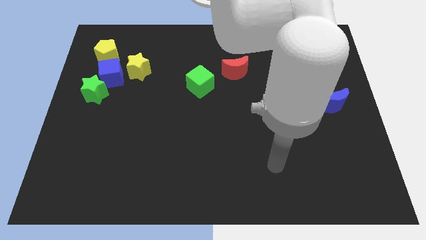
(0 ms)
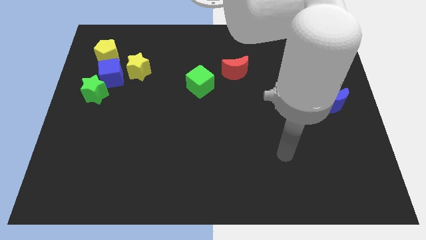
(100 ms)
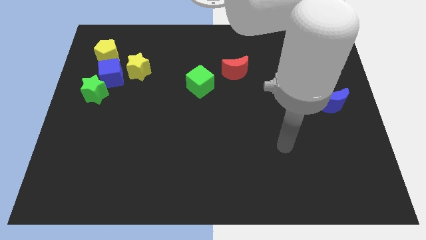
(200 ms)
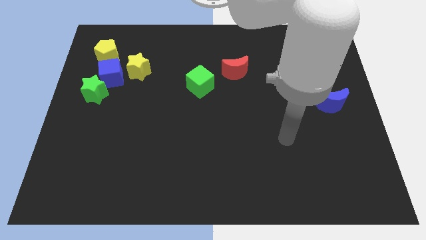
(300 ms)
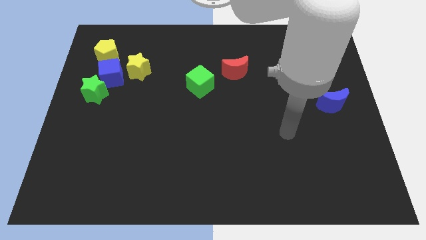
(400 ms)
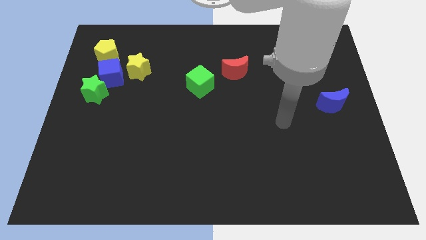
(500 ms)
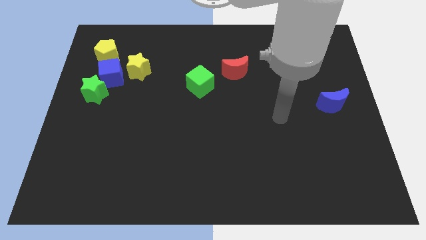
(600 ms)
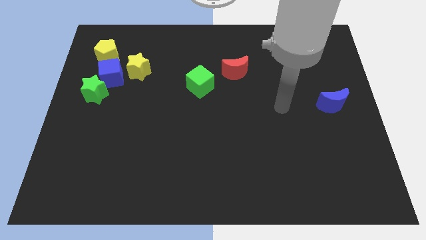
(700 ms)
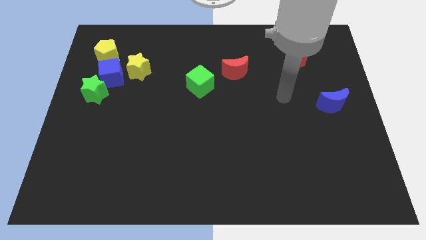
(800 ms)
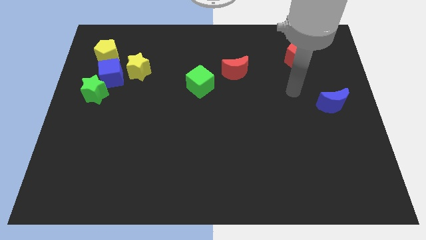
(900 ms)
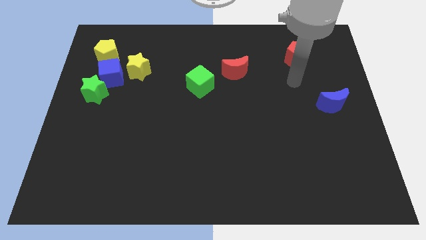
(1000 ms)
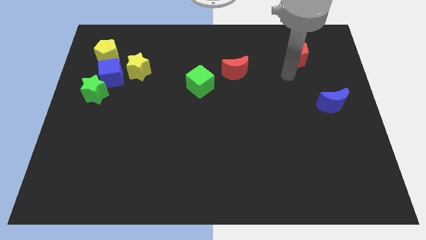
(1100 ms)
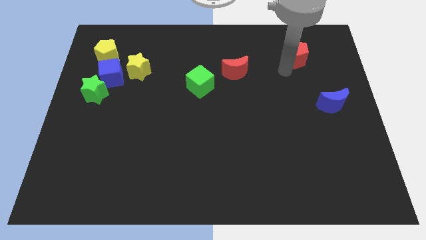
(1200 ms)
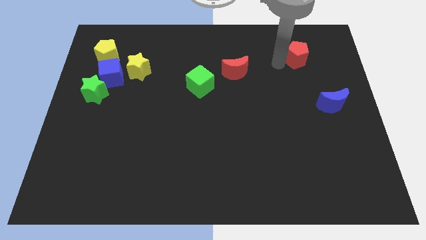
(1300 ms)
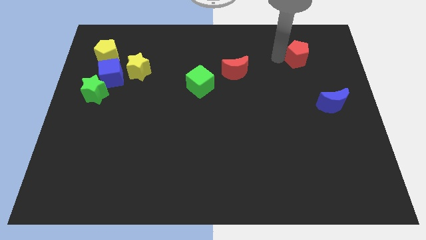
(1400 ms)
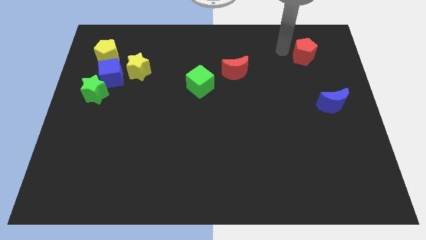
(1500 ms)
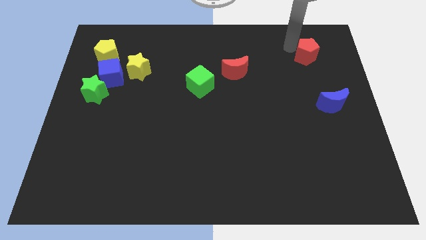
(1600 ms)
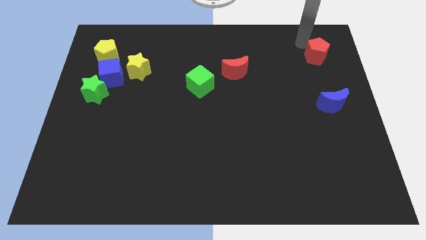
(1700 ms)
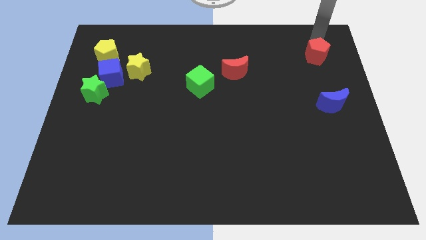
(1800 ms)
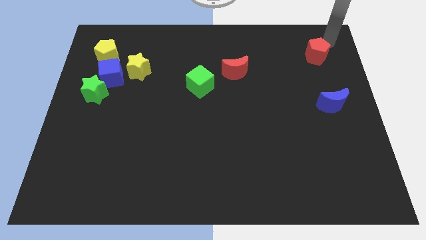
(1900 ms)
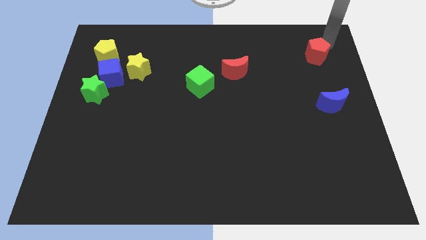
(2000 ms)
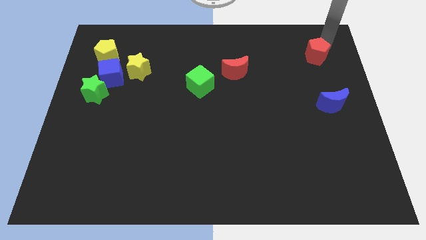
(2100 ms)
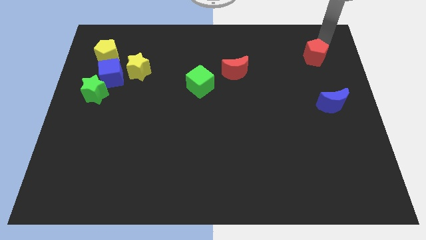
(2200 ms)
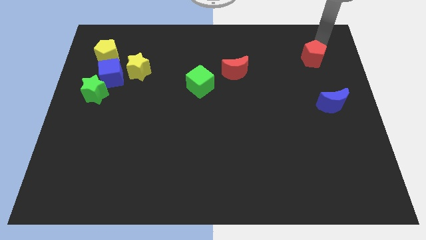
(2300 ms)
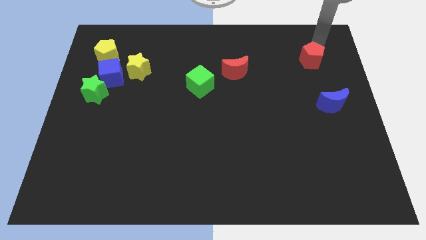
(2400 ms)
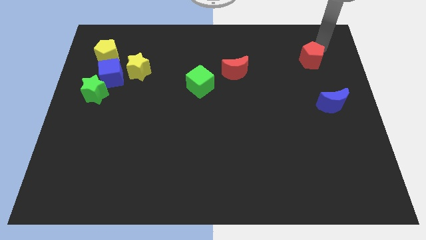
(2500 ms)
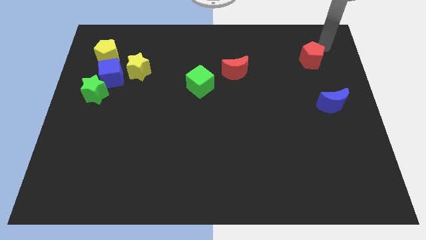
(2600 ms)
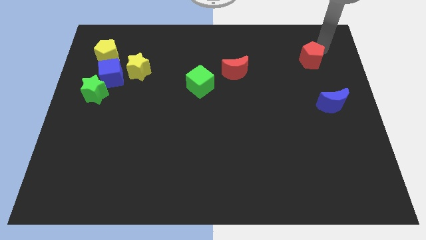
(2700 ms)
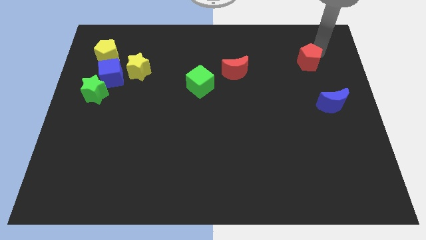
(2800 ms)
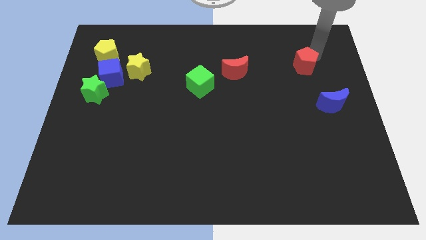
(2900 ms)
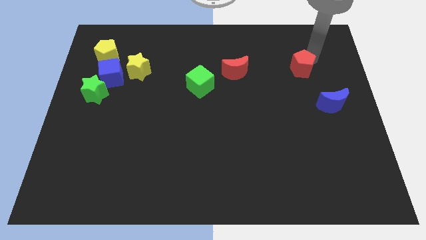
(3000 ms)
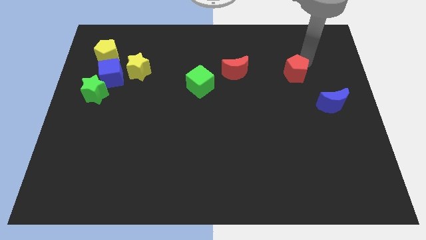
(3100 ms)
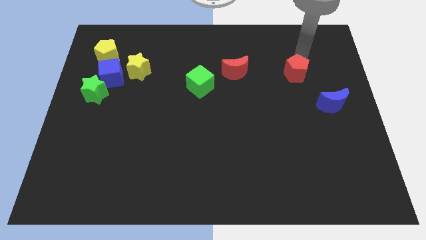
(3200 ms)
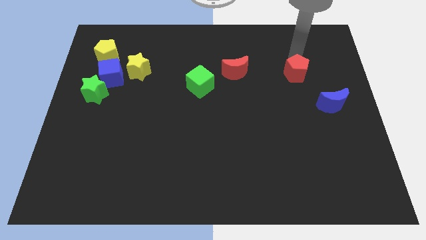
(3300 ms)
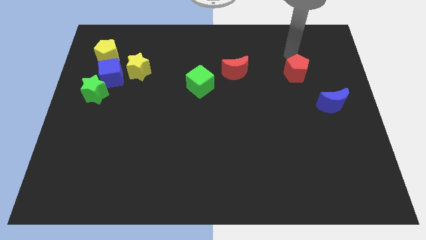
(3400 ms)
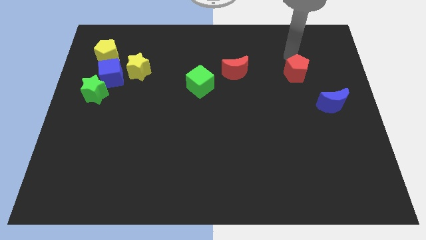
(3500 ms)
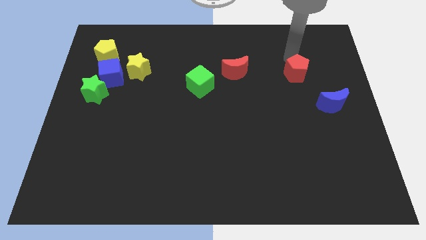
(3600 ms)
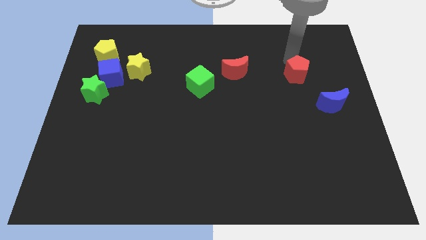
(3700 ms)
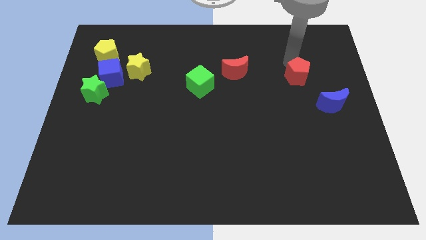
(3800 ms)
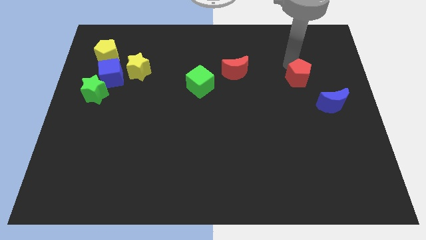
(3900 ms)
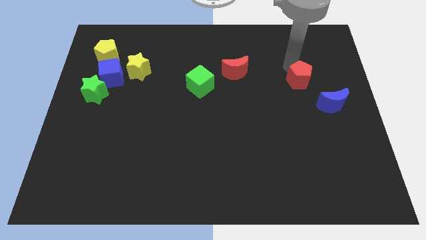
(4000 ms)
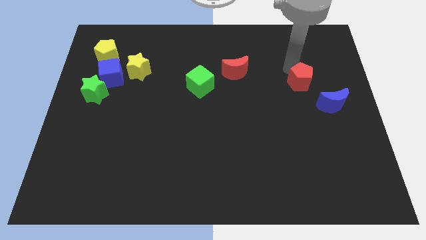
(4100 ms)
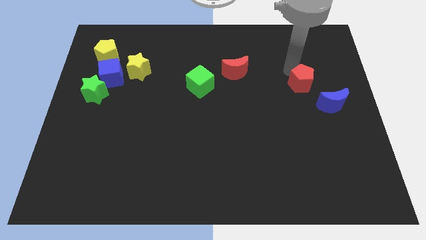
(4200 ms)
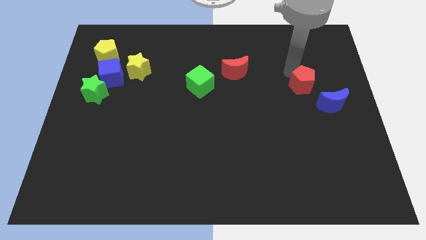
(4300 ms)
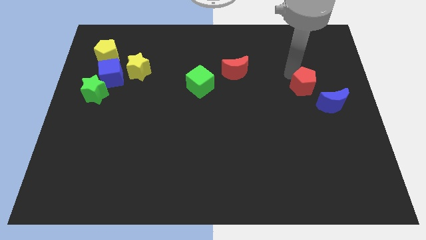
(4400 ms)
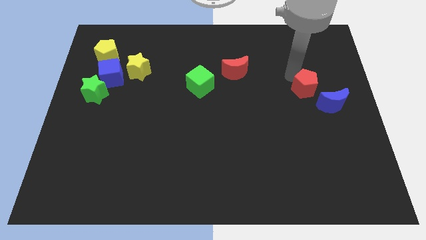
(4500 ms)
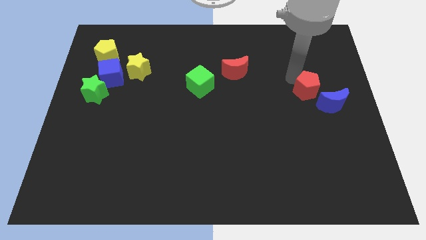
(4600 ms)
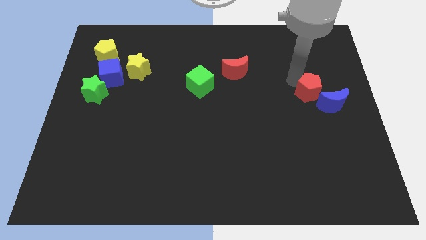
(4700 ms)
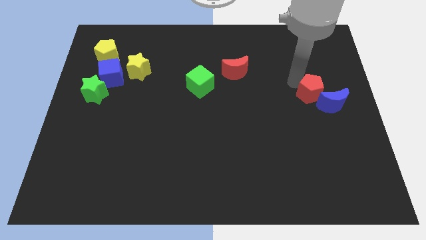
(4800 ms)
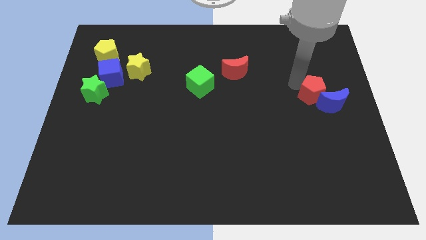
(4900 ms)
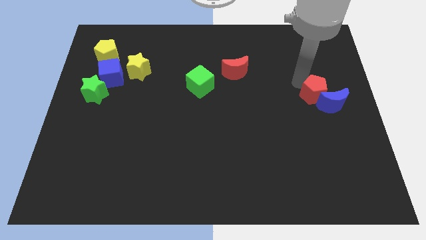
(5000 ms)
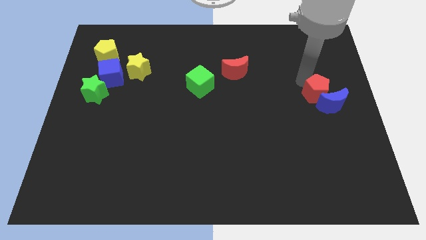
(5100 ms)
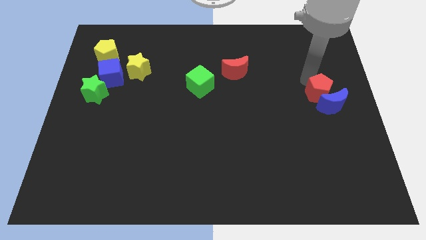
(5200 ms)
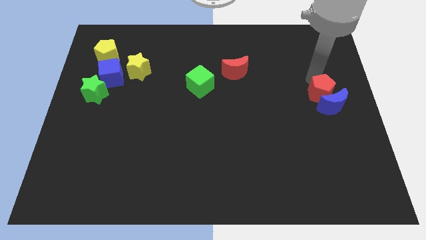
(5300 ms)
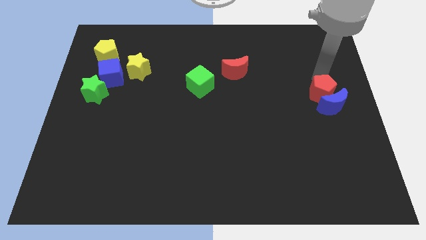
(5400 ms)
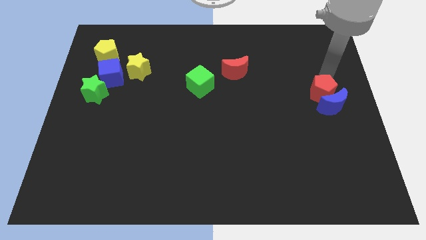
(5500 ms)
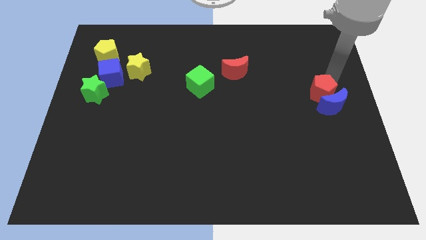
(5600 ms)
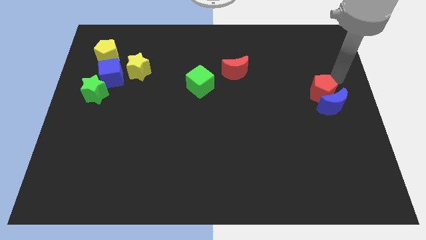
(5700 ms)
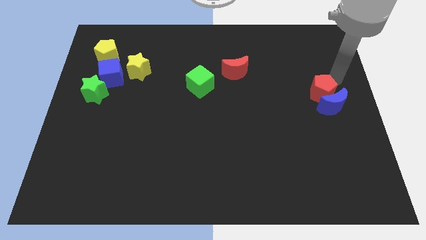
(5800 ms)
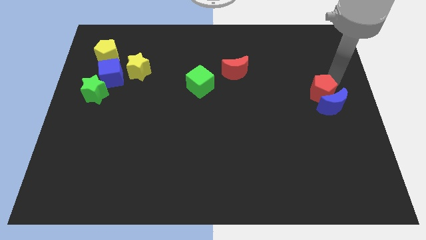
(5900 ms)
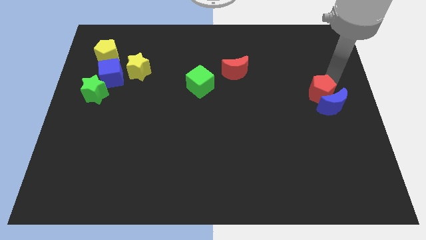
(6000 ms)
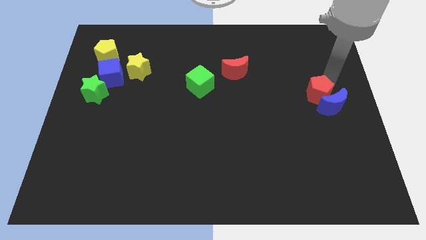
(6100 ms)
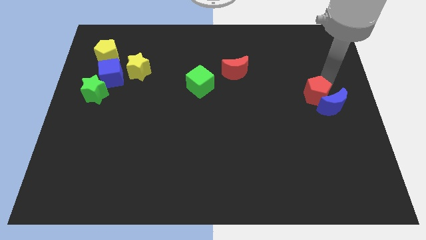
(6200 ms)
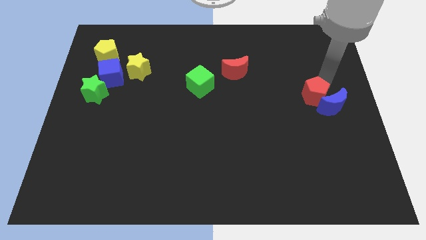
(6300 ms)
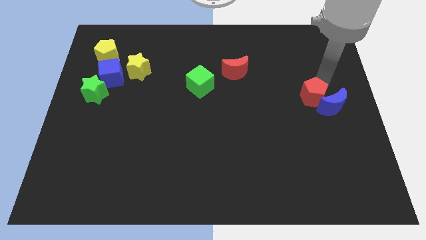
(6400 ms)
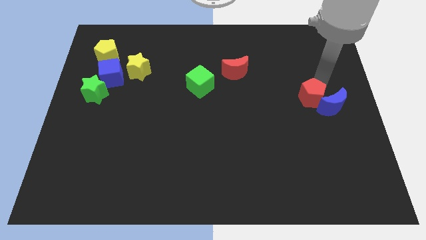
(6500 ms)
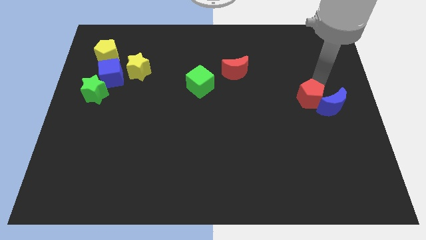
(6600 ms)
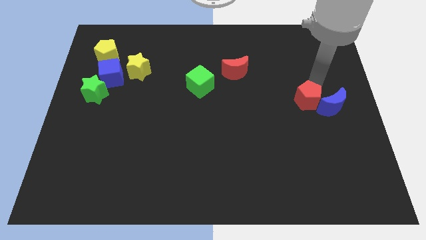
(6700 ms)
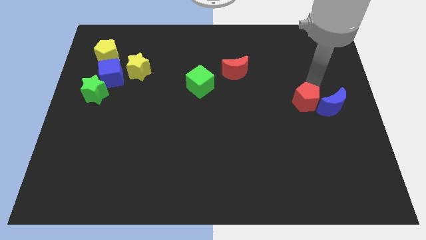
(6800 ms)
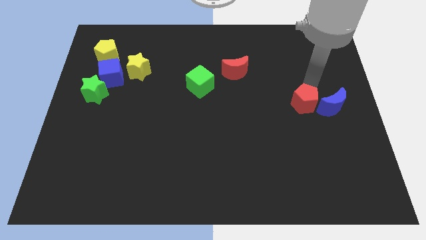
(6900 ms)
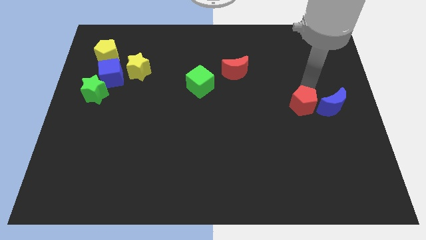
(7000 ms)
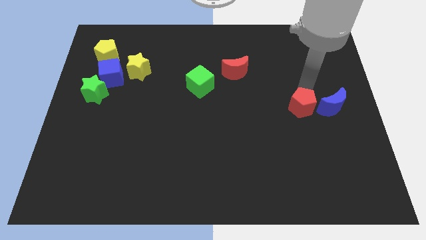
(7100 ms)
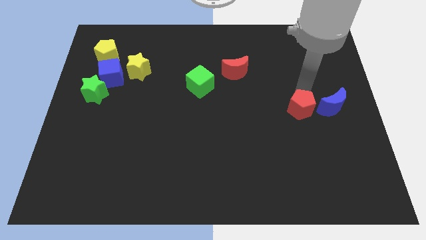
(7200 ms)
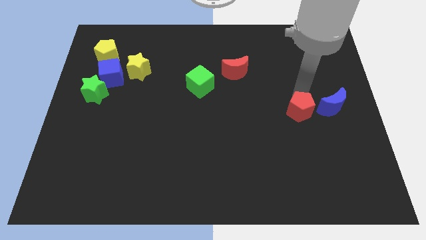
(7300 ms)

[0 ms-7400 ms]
put the red pentagon diagonally down and to the left of the blue moon
